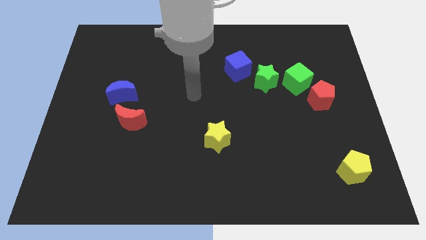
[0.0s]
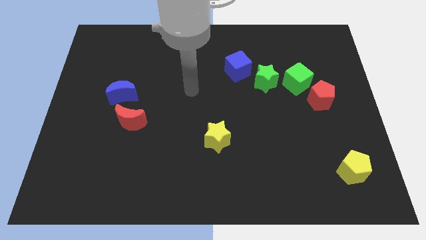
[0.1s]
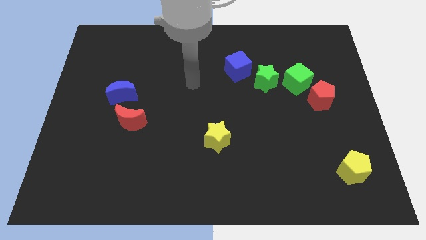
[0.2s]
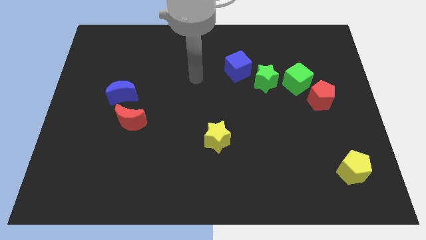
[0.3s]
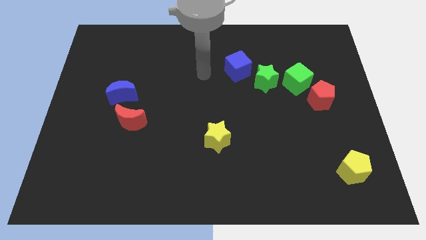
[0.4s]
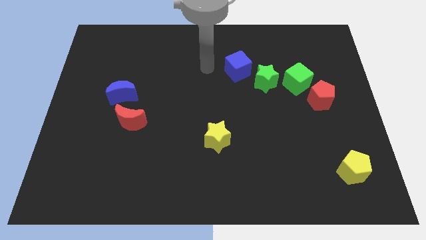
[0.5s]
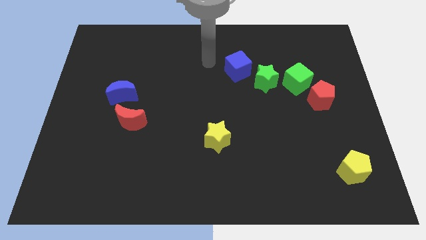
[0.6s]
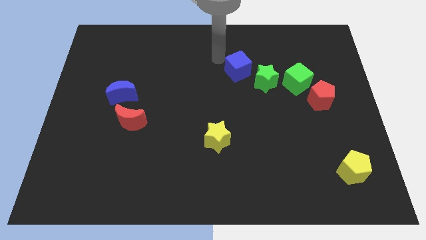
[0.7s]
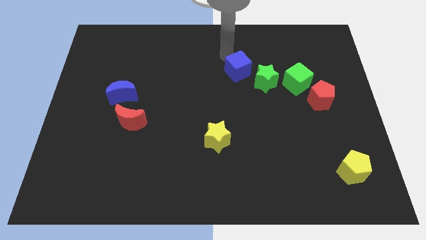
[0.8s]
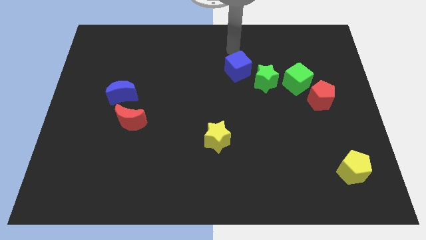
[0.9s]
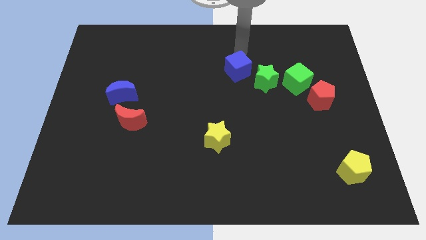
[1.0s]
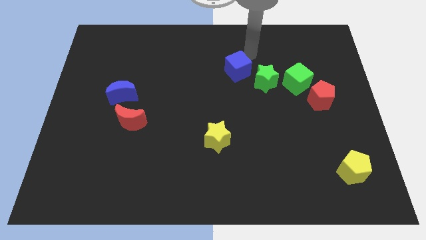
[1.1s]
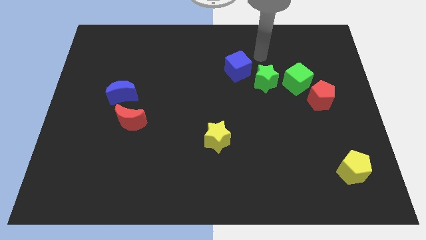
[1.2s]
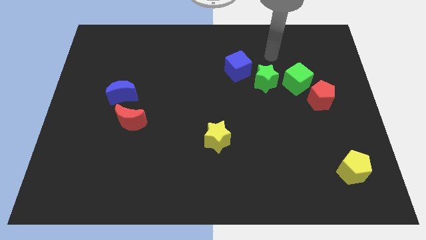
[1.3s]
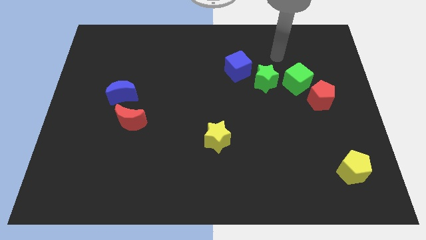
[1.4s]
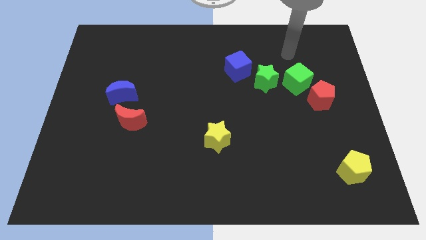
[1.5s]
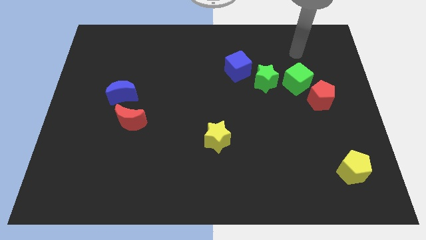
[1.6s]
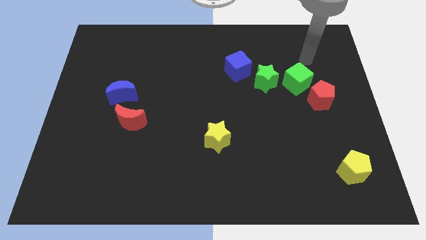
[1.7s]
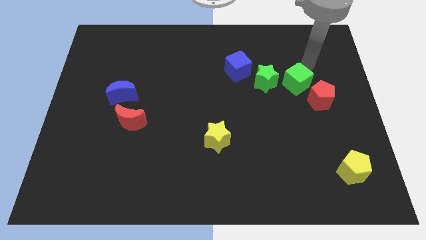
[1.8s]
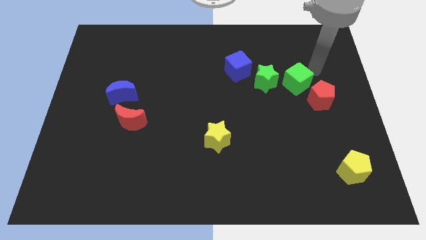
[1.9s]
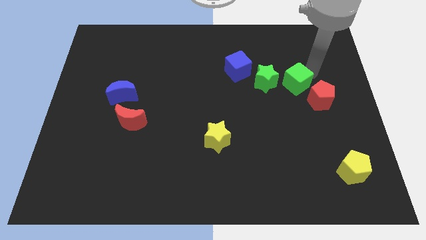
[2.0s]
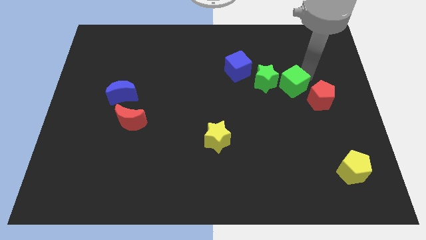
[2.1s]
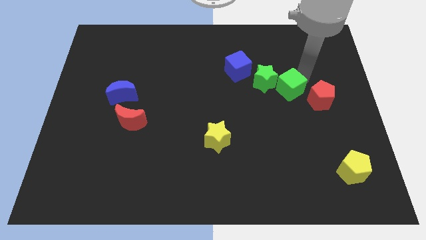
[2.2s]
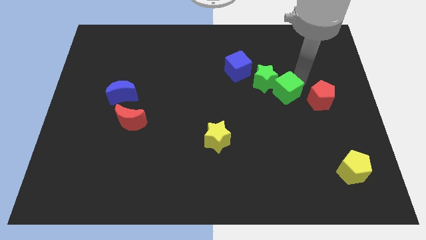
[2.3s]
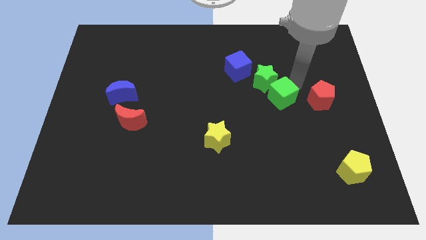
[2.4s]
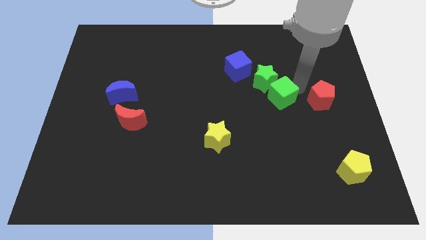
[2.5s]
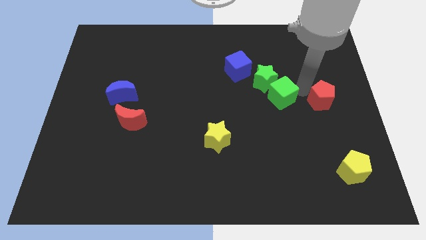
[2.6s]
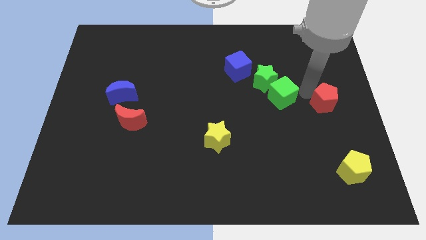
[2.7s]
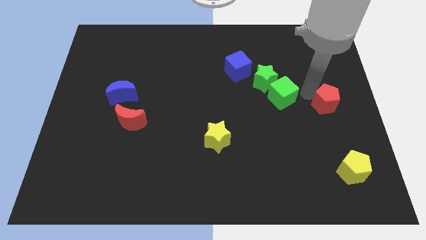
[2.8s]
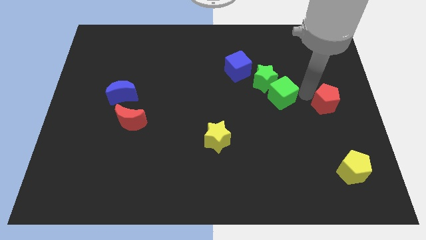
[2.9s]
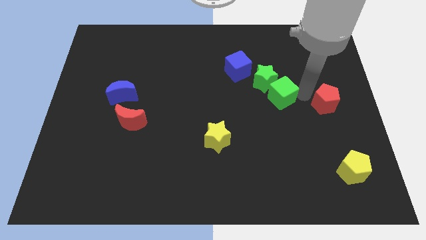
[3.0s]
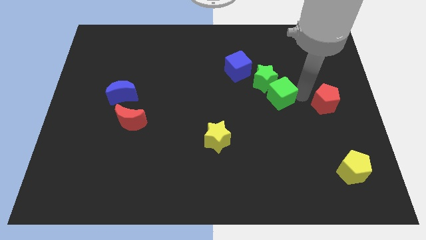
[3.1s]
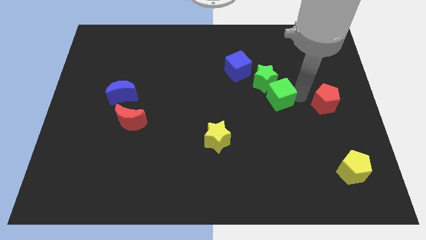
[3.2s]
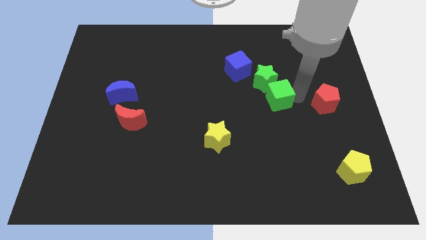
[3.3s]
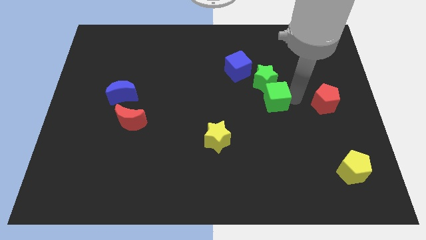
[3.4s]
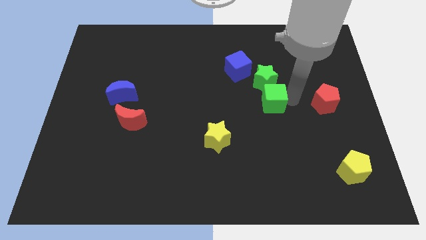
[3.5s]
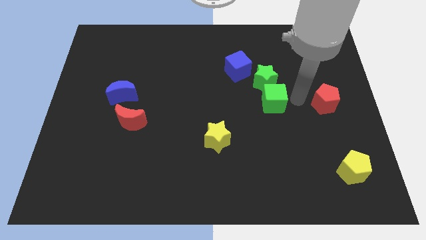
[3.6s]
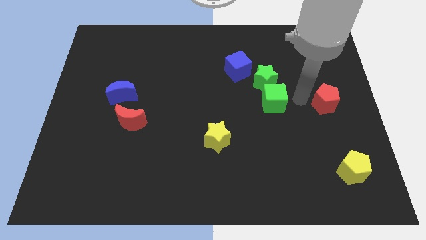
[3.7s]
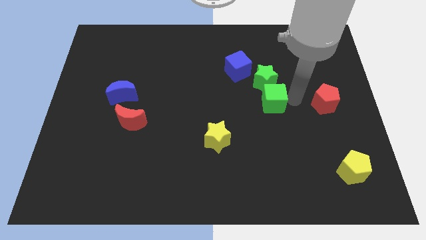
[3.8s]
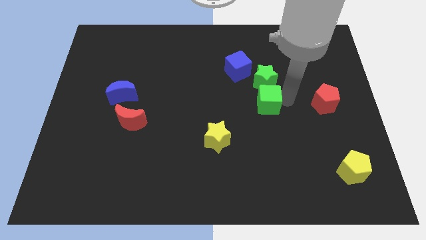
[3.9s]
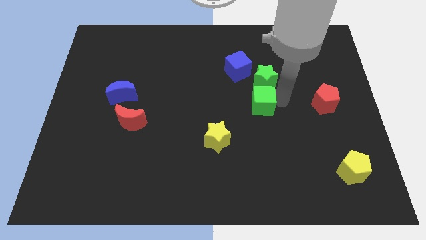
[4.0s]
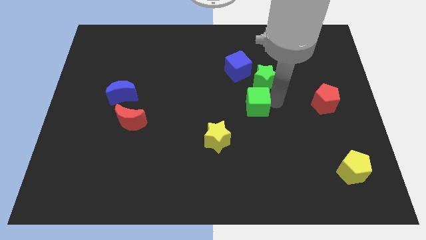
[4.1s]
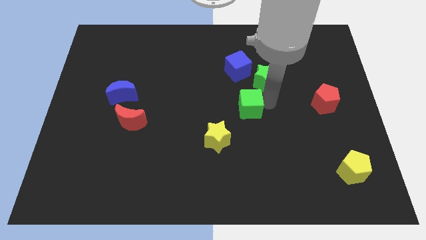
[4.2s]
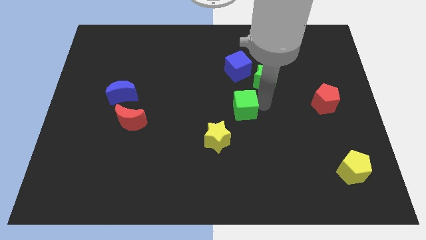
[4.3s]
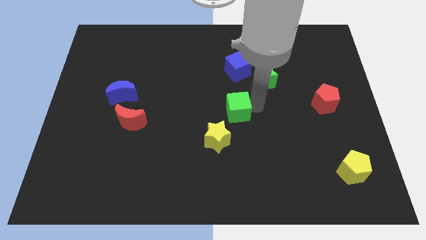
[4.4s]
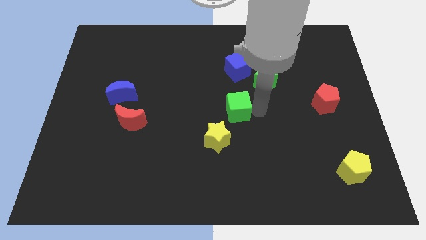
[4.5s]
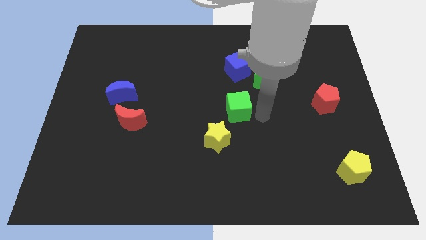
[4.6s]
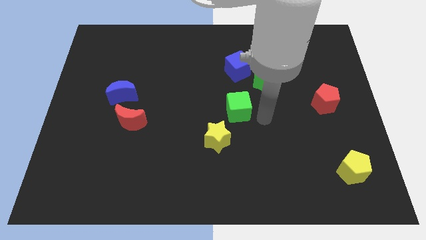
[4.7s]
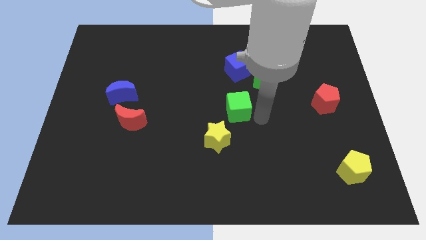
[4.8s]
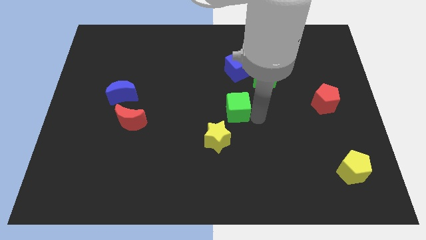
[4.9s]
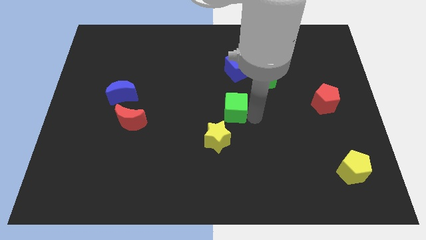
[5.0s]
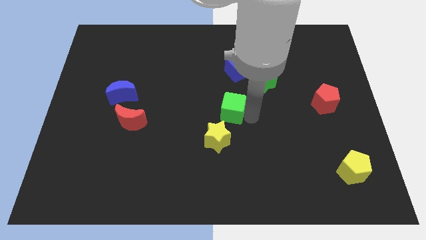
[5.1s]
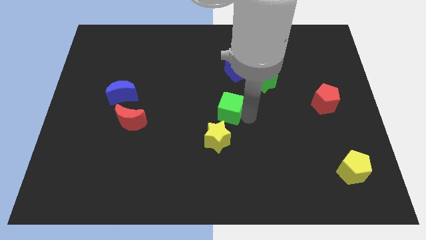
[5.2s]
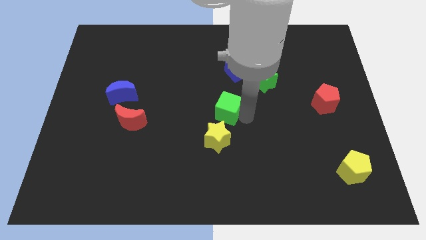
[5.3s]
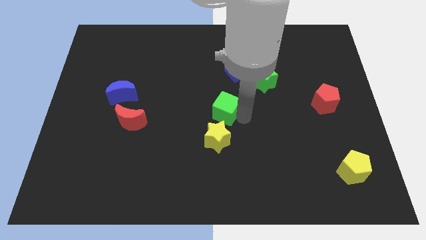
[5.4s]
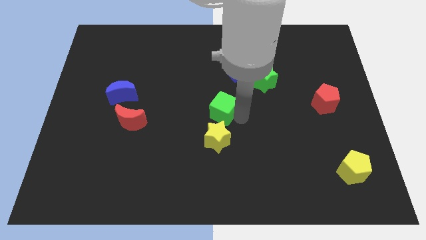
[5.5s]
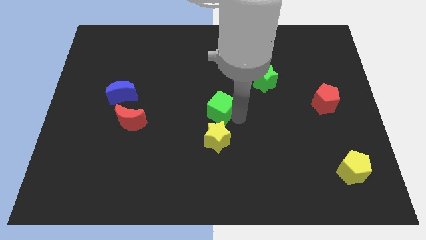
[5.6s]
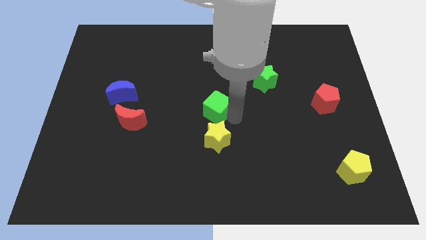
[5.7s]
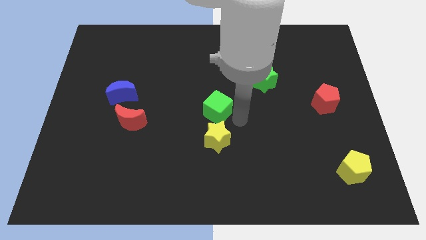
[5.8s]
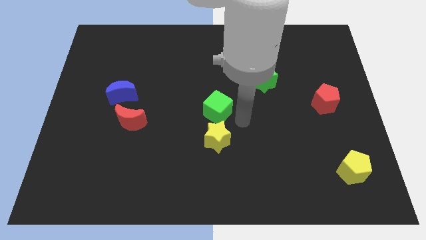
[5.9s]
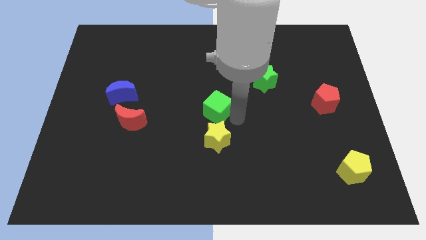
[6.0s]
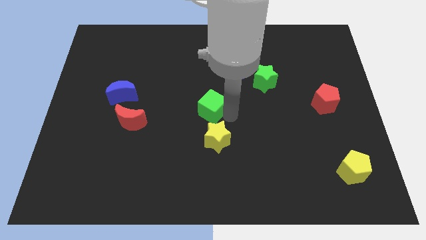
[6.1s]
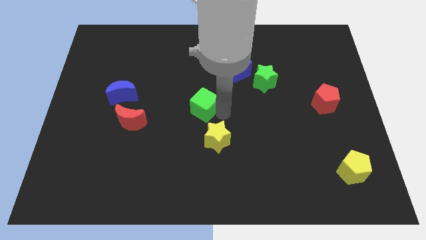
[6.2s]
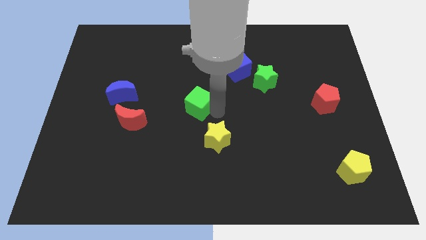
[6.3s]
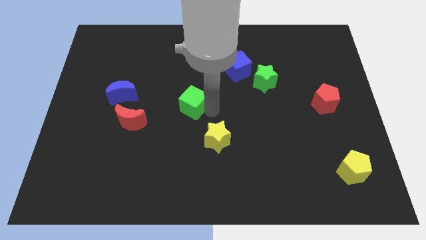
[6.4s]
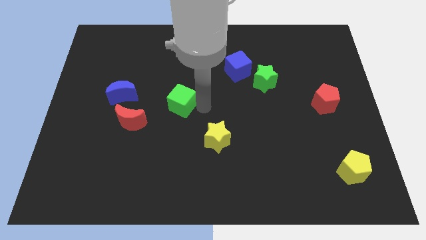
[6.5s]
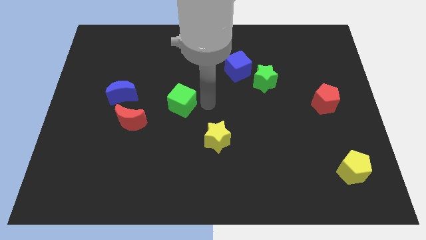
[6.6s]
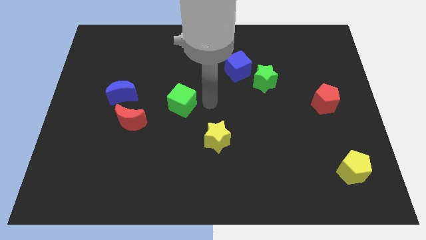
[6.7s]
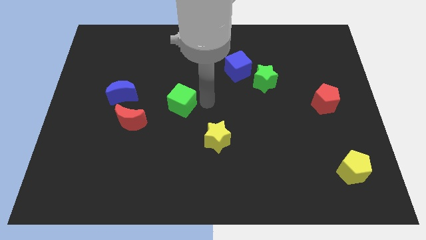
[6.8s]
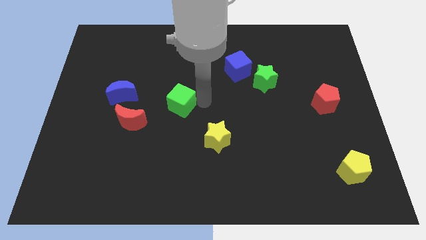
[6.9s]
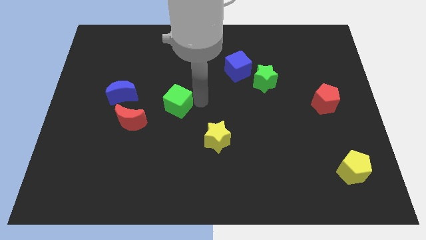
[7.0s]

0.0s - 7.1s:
move the green cube to the top right side of the red moon

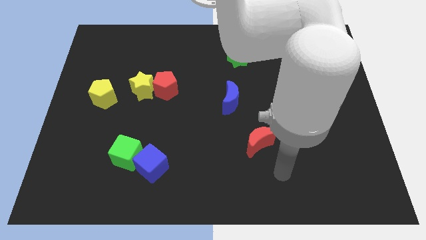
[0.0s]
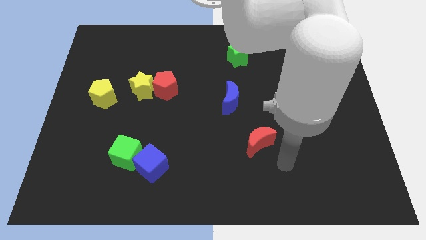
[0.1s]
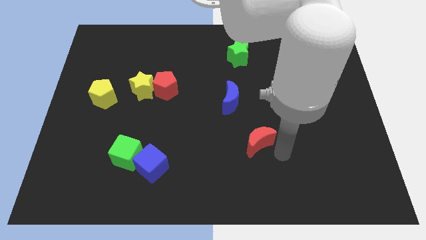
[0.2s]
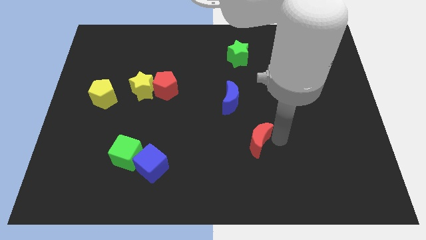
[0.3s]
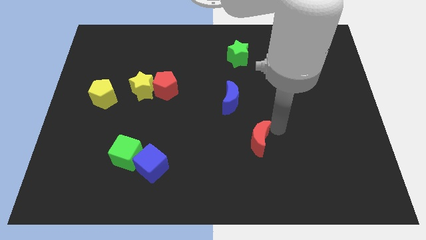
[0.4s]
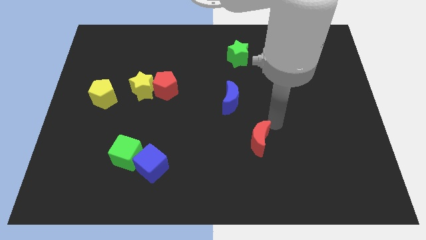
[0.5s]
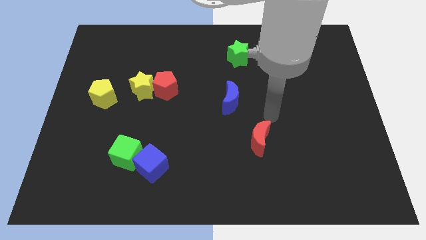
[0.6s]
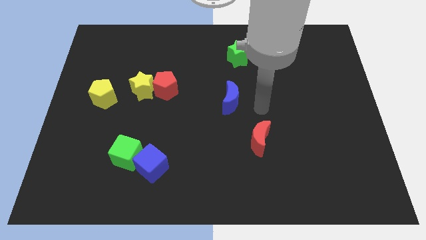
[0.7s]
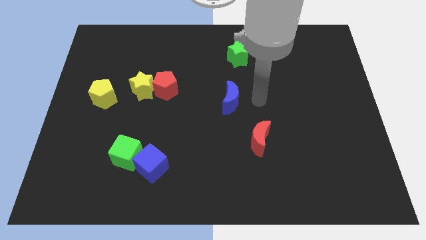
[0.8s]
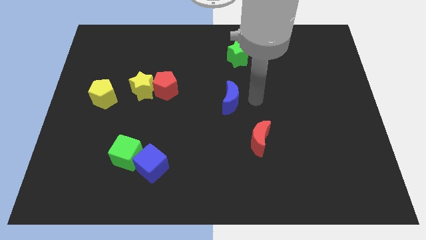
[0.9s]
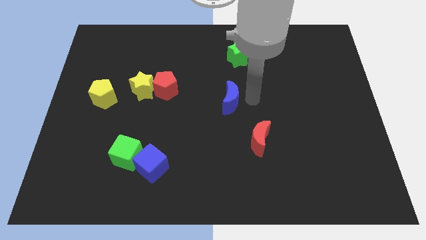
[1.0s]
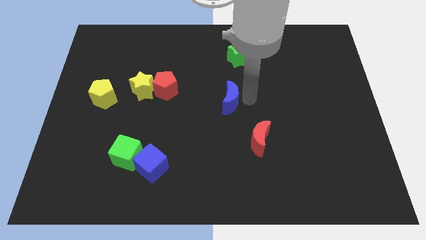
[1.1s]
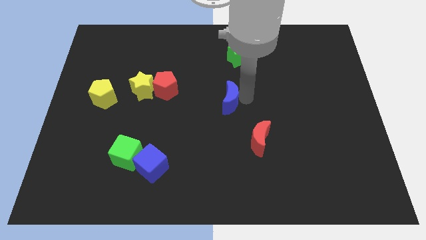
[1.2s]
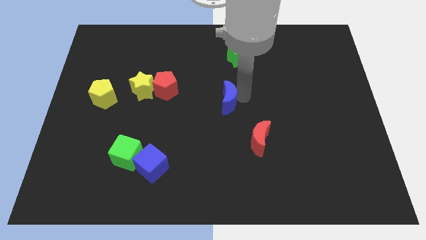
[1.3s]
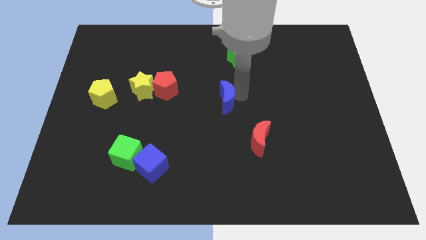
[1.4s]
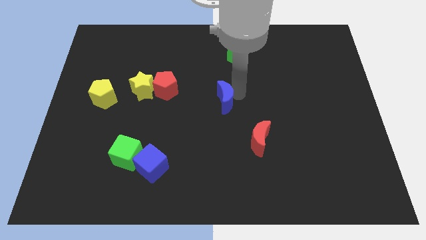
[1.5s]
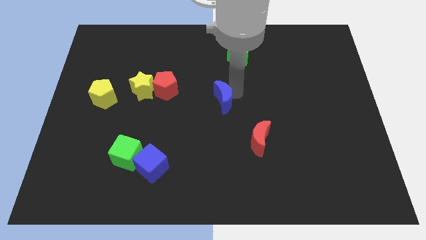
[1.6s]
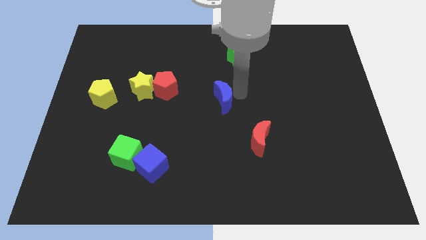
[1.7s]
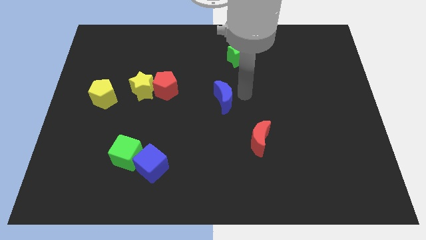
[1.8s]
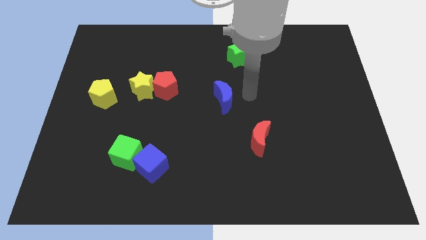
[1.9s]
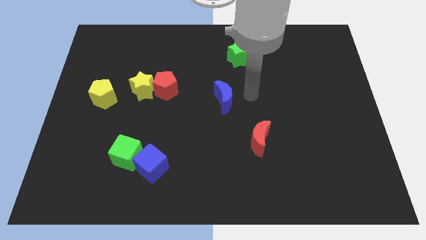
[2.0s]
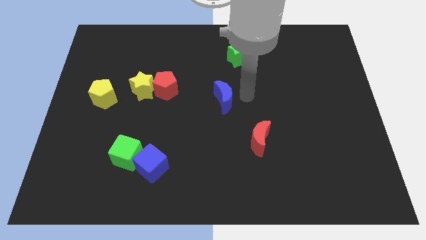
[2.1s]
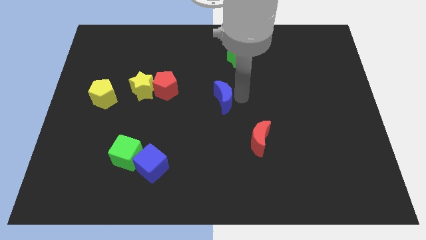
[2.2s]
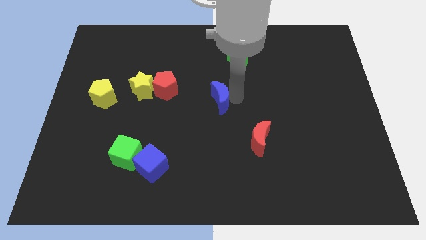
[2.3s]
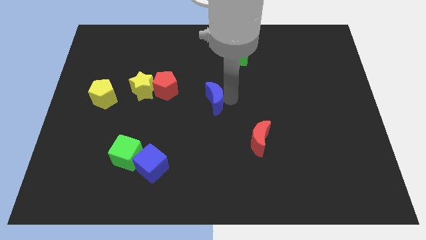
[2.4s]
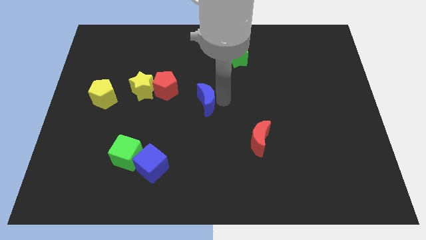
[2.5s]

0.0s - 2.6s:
move the blue moon to the bottom right of the red pentagon
